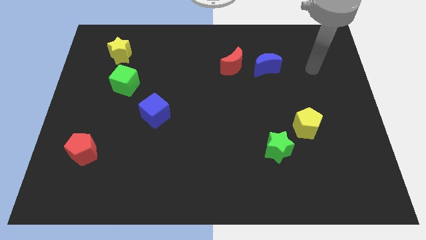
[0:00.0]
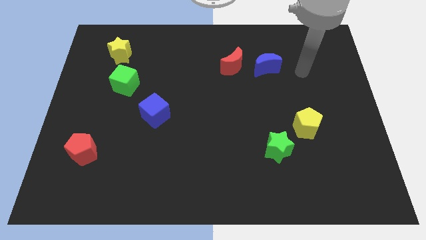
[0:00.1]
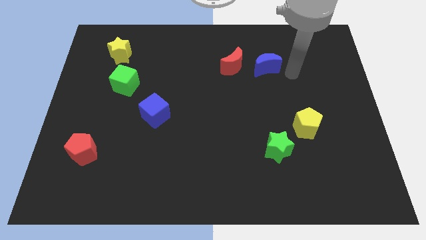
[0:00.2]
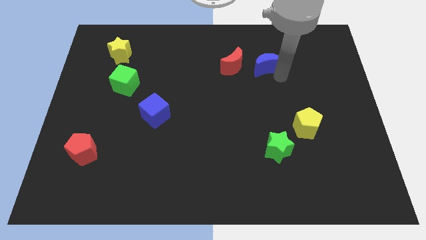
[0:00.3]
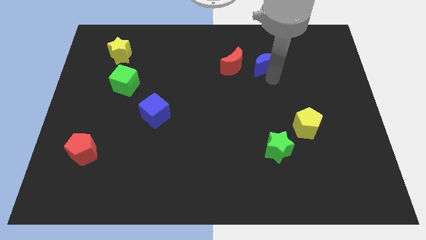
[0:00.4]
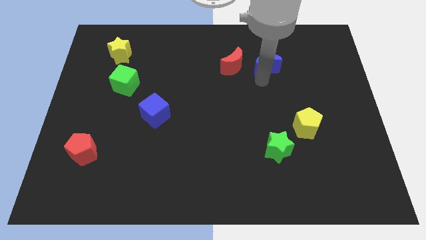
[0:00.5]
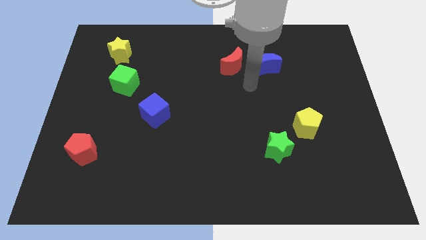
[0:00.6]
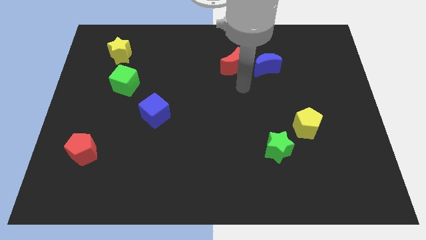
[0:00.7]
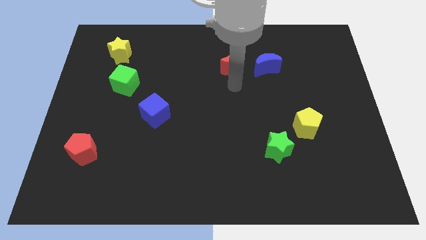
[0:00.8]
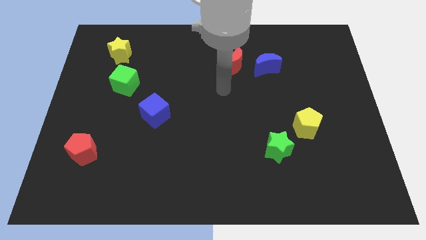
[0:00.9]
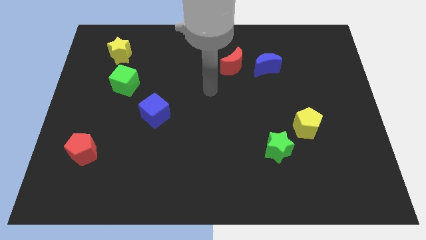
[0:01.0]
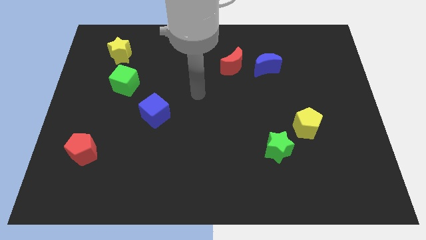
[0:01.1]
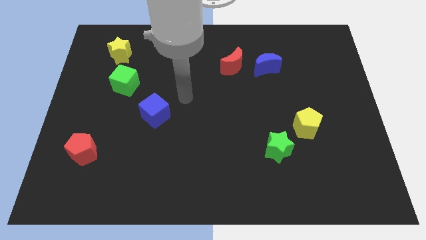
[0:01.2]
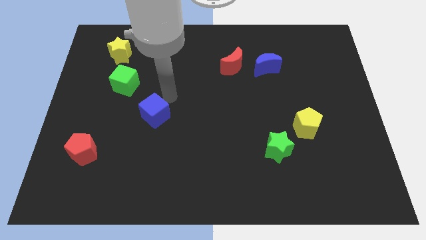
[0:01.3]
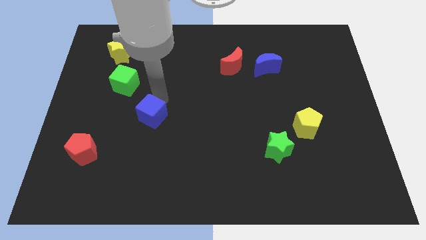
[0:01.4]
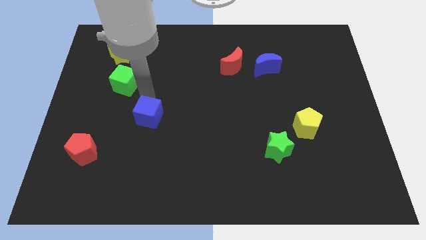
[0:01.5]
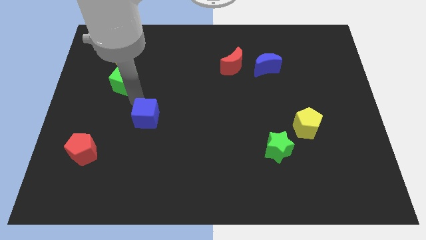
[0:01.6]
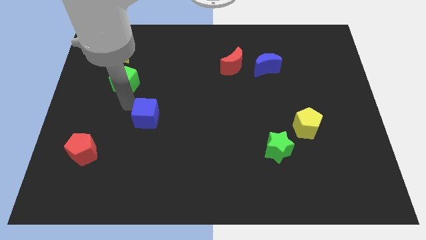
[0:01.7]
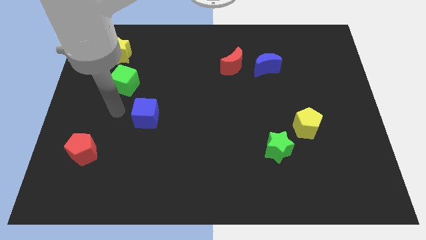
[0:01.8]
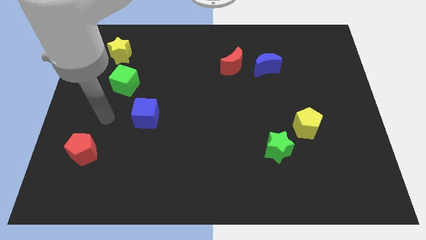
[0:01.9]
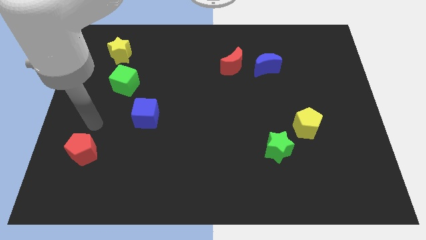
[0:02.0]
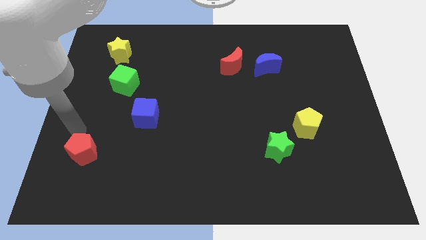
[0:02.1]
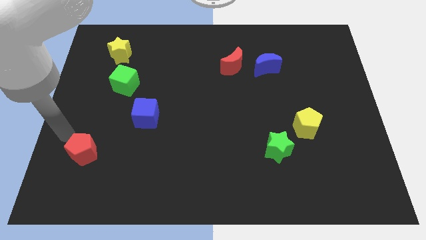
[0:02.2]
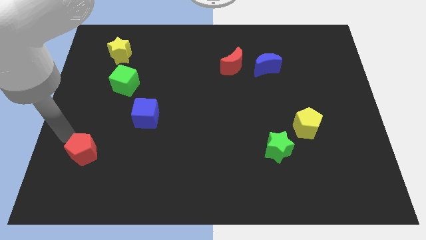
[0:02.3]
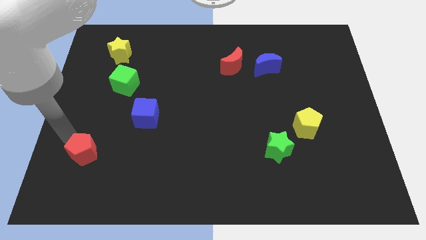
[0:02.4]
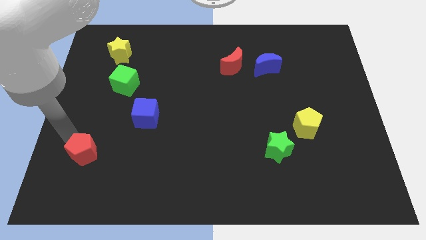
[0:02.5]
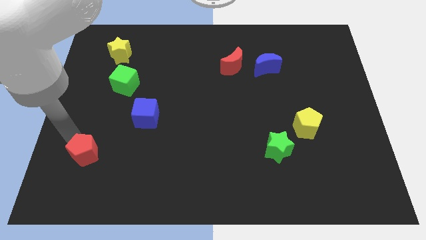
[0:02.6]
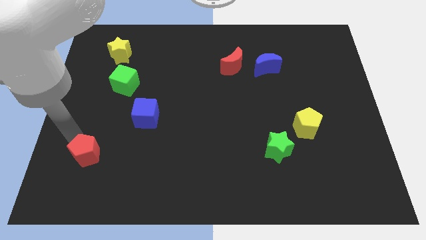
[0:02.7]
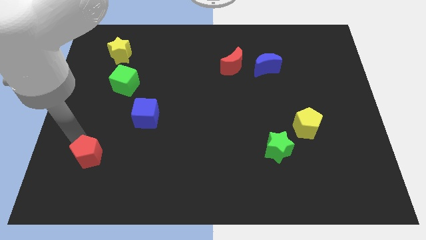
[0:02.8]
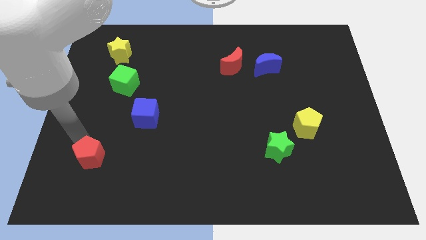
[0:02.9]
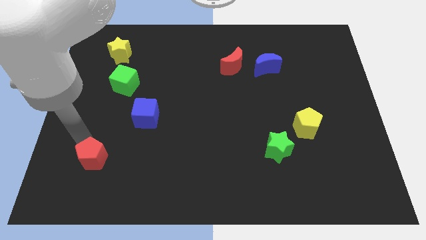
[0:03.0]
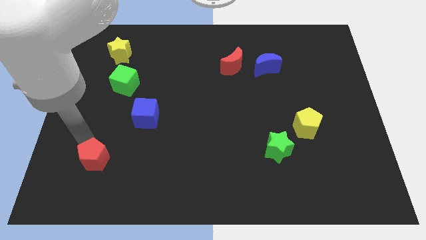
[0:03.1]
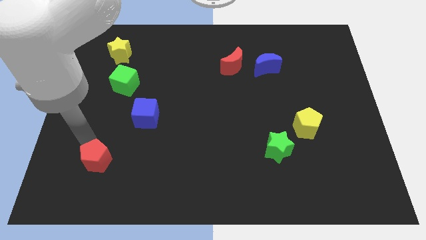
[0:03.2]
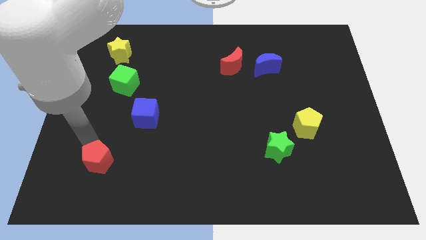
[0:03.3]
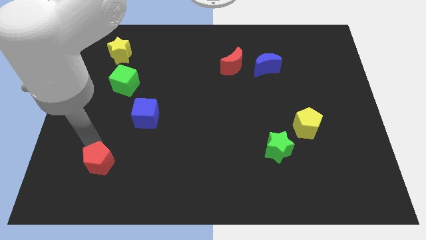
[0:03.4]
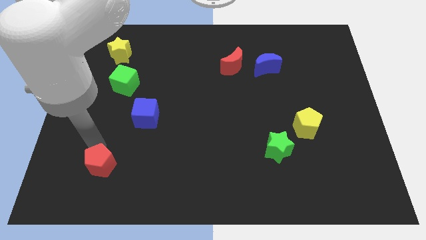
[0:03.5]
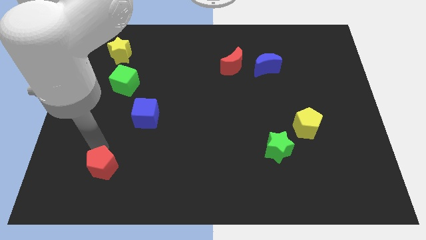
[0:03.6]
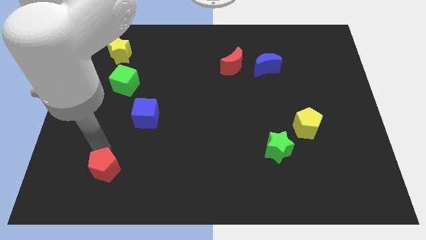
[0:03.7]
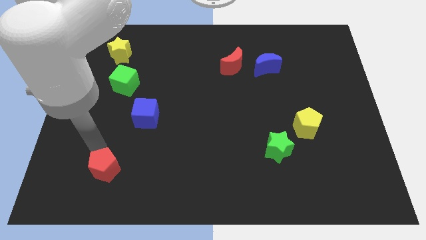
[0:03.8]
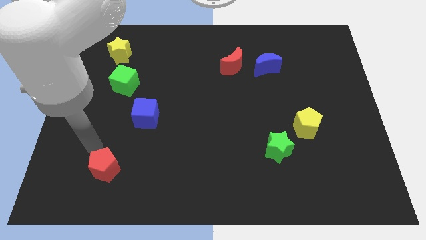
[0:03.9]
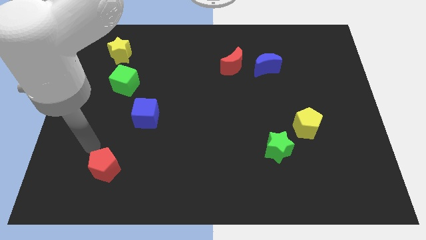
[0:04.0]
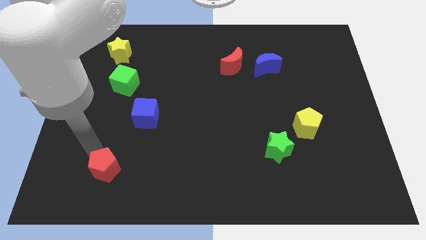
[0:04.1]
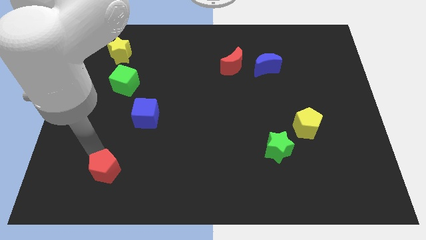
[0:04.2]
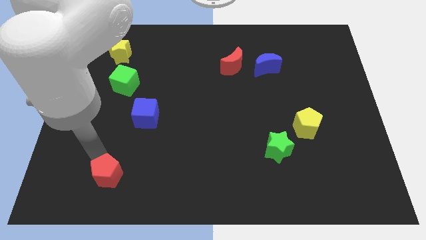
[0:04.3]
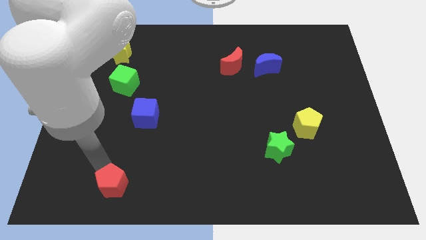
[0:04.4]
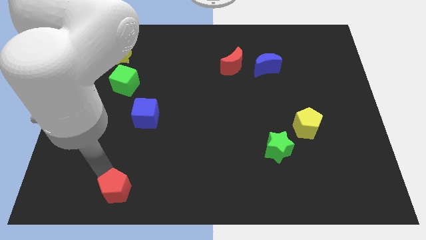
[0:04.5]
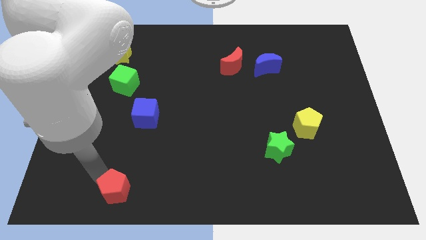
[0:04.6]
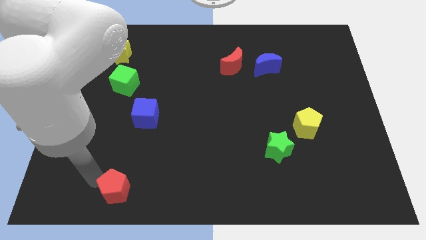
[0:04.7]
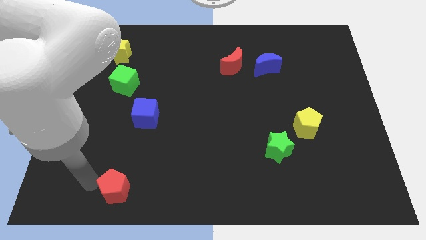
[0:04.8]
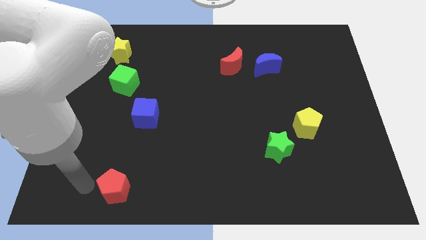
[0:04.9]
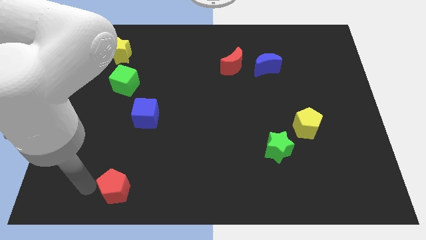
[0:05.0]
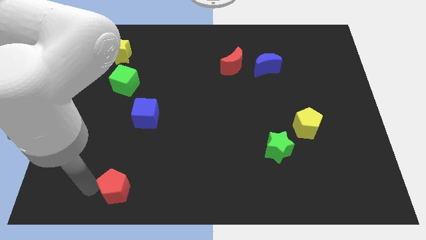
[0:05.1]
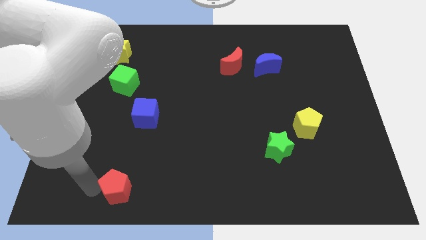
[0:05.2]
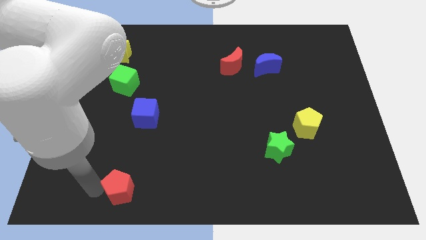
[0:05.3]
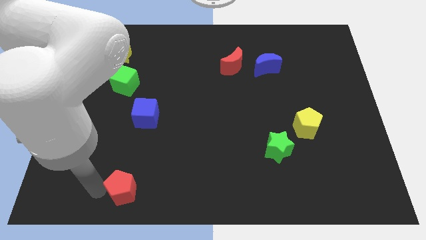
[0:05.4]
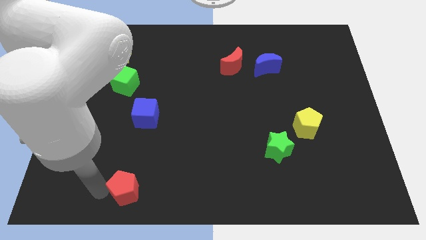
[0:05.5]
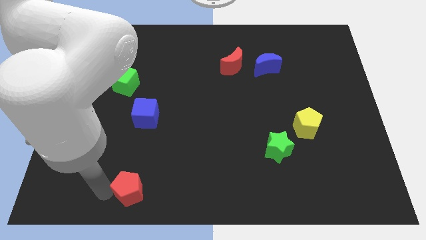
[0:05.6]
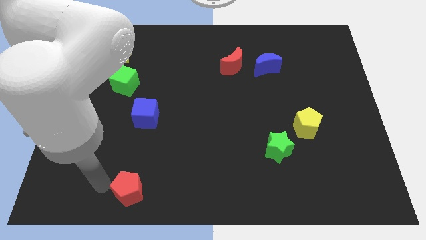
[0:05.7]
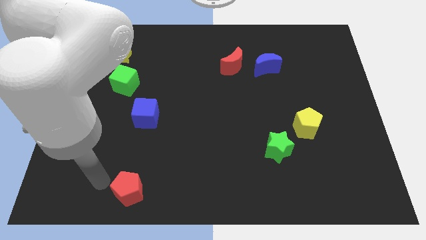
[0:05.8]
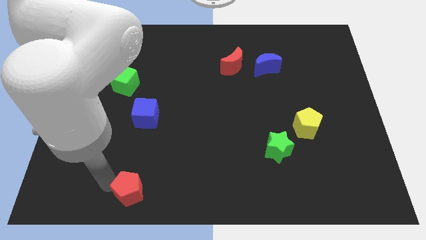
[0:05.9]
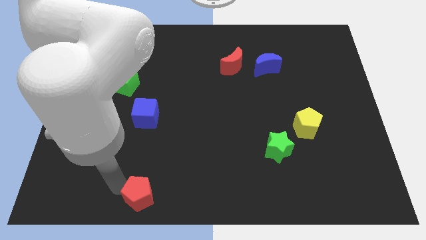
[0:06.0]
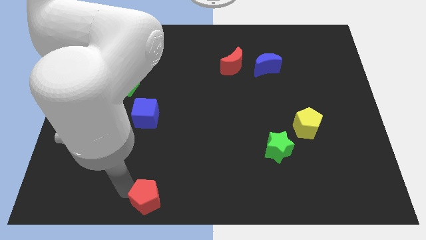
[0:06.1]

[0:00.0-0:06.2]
slide the red pentagon to the bottom side

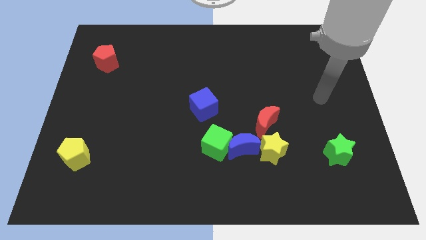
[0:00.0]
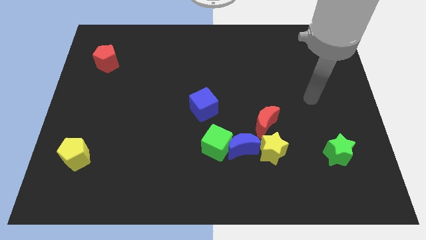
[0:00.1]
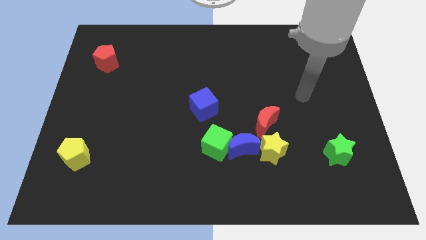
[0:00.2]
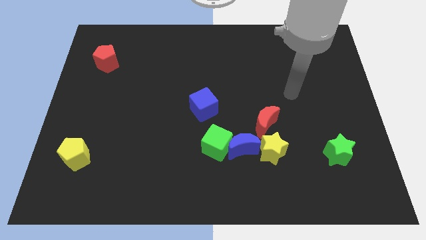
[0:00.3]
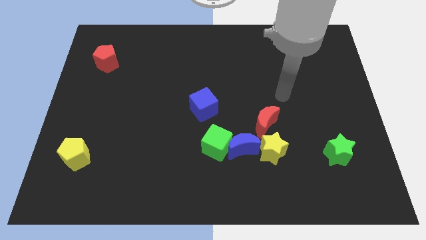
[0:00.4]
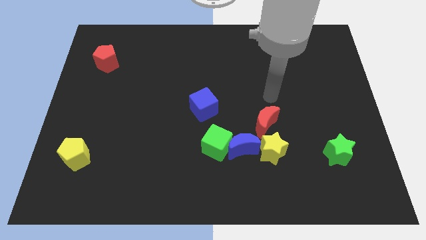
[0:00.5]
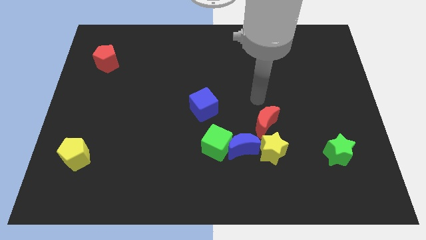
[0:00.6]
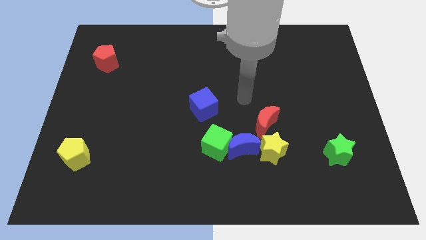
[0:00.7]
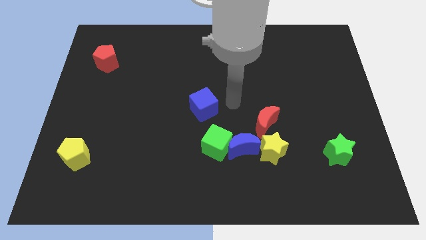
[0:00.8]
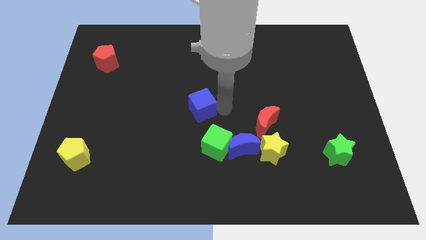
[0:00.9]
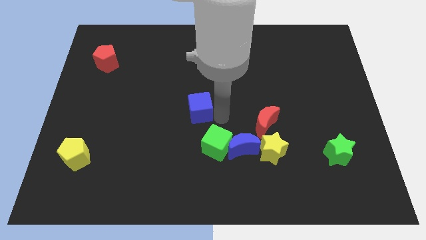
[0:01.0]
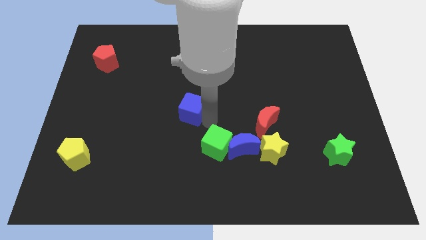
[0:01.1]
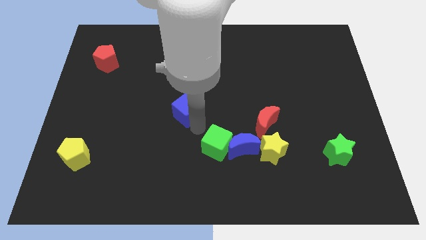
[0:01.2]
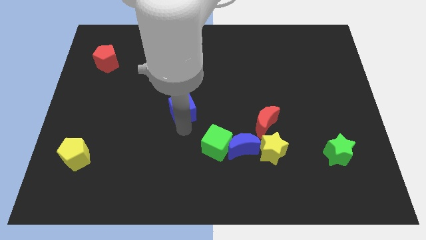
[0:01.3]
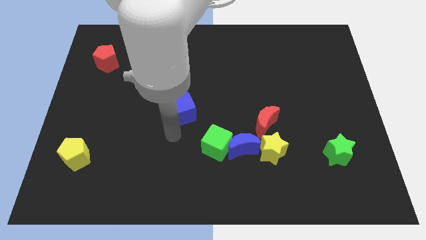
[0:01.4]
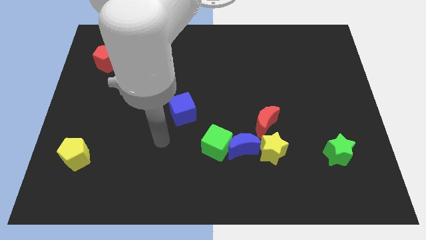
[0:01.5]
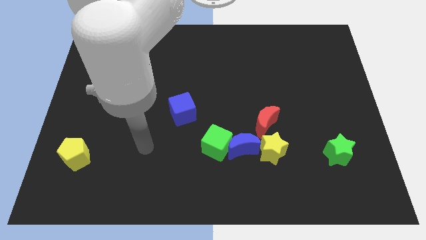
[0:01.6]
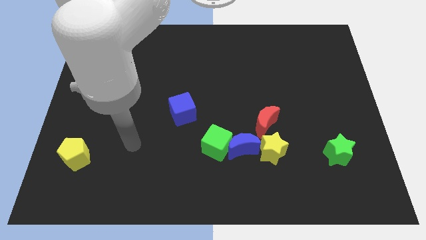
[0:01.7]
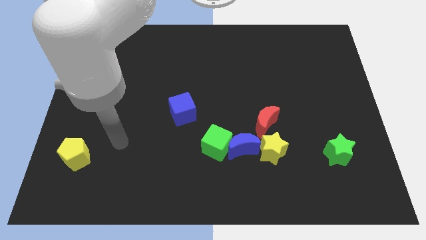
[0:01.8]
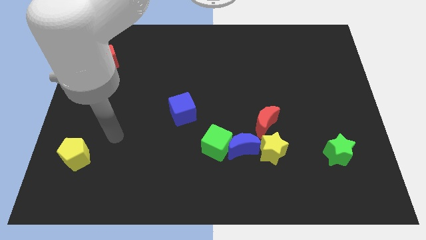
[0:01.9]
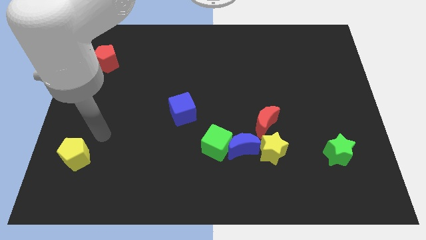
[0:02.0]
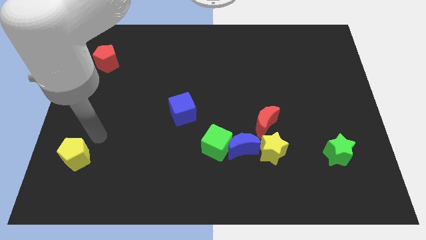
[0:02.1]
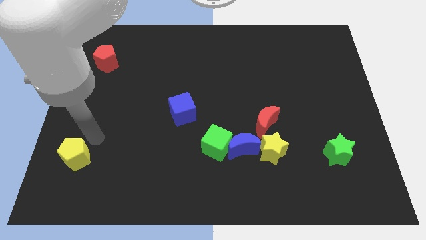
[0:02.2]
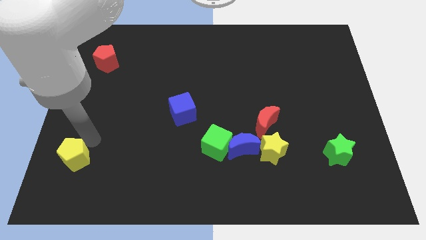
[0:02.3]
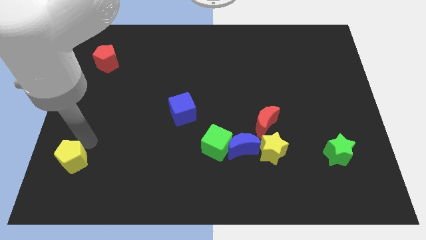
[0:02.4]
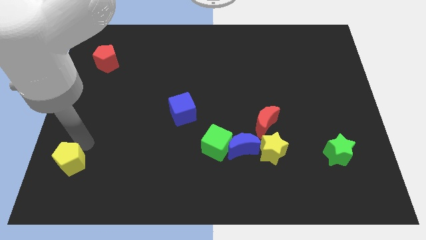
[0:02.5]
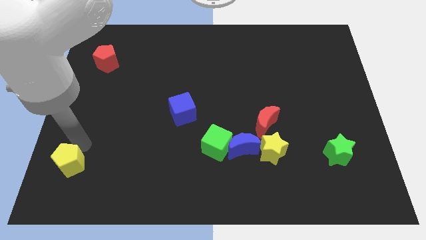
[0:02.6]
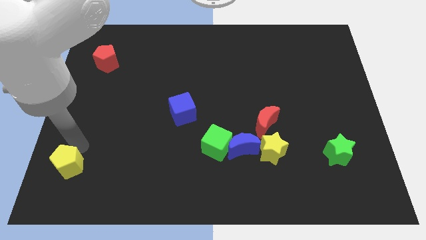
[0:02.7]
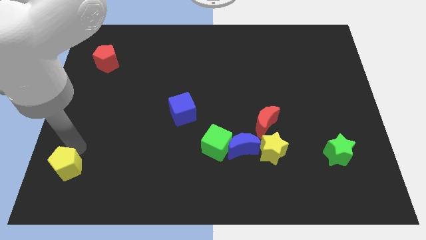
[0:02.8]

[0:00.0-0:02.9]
push the yellow pentagon to the lower left corner
